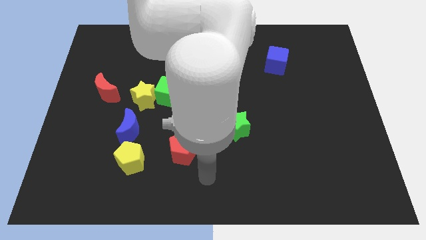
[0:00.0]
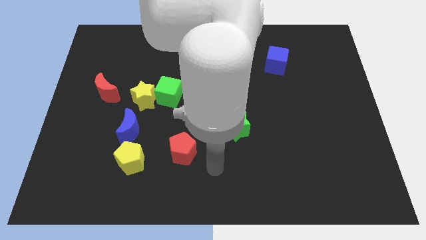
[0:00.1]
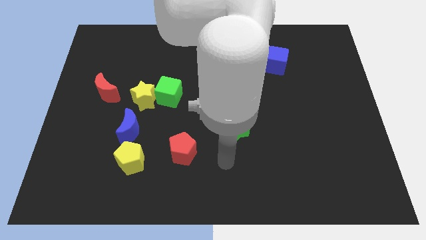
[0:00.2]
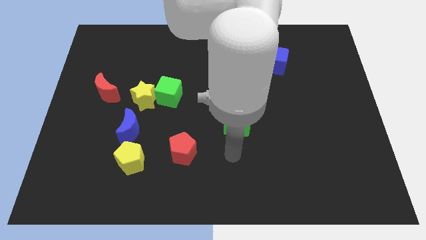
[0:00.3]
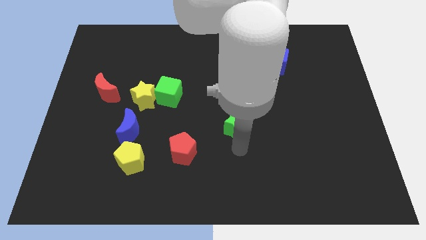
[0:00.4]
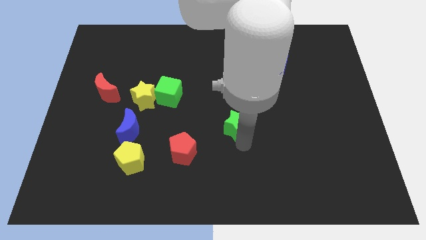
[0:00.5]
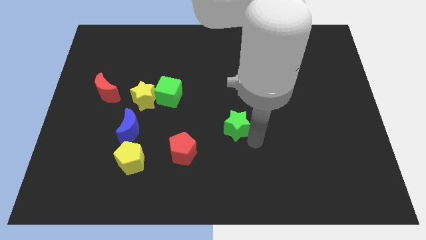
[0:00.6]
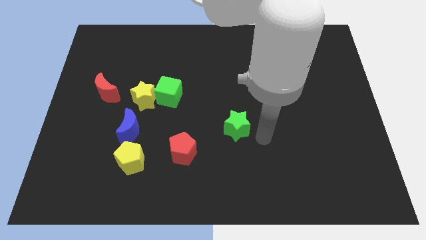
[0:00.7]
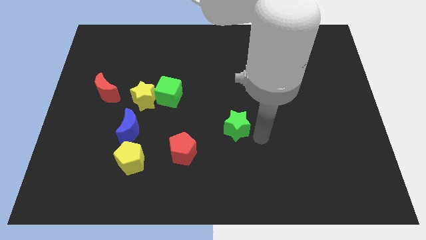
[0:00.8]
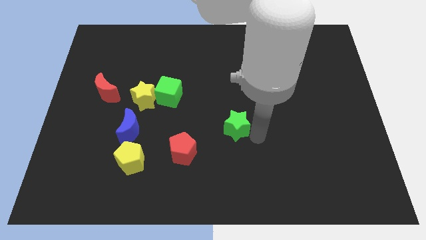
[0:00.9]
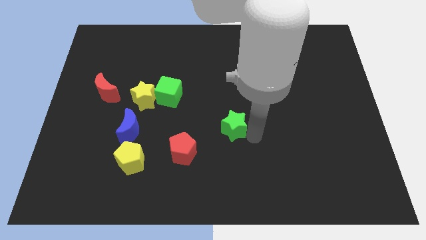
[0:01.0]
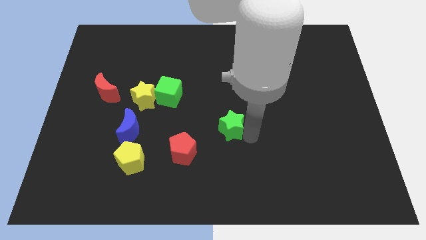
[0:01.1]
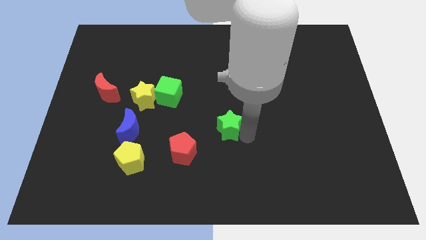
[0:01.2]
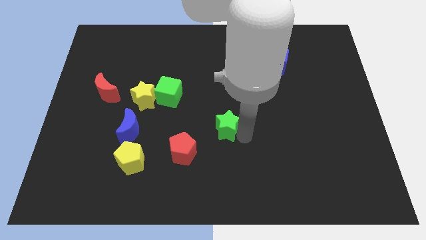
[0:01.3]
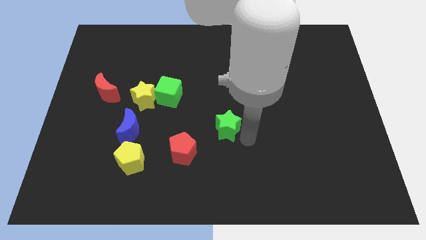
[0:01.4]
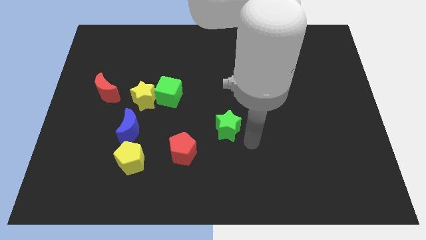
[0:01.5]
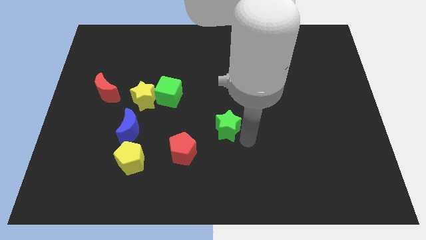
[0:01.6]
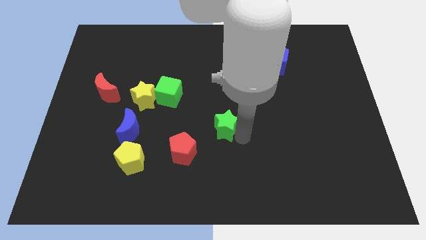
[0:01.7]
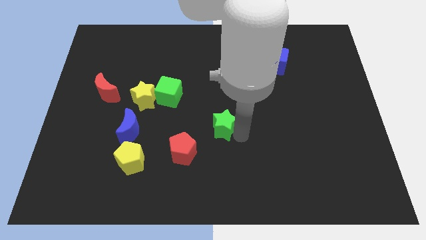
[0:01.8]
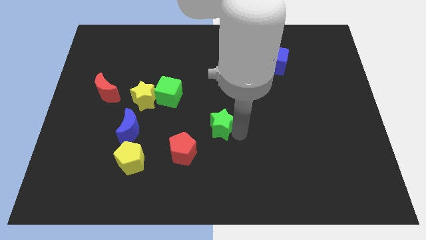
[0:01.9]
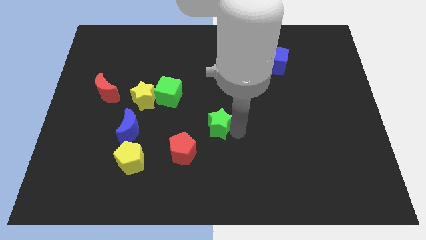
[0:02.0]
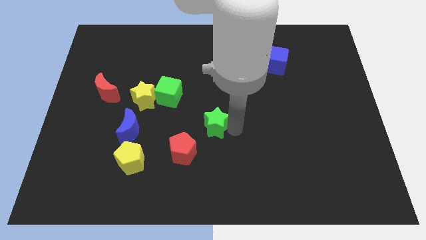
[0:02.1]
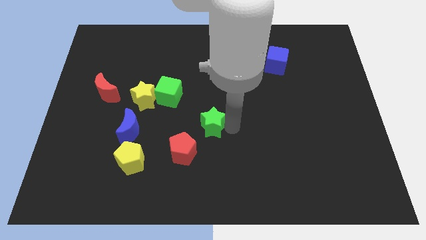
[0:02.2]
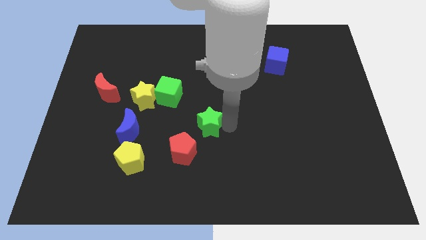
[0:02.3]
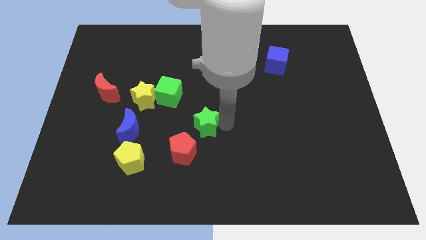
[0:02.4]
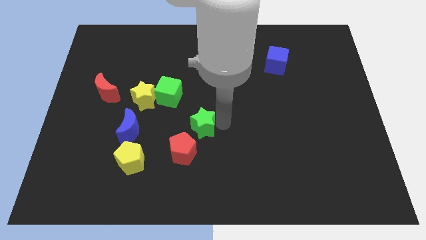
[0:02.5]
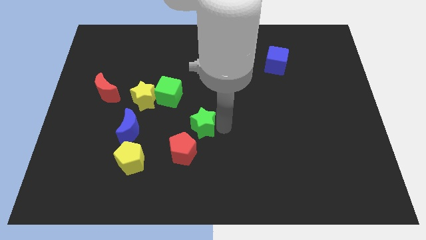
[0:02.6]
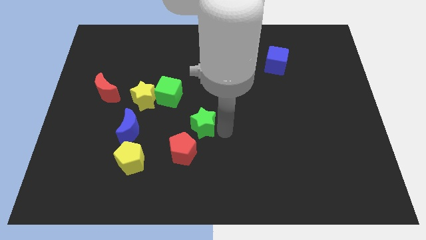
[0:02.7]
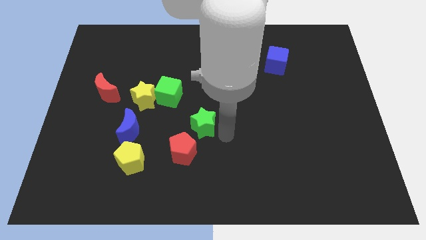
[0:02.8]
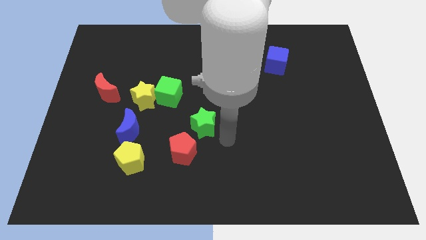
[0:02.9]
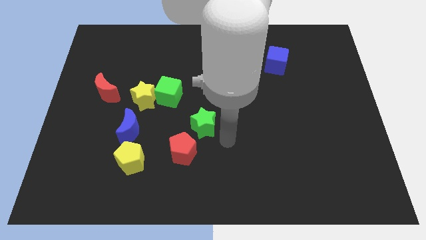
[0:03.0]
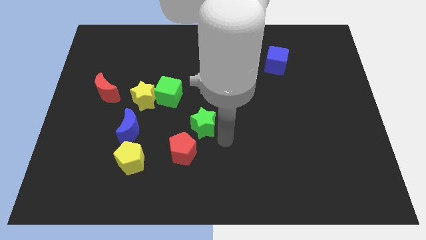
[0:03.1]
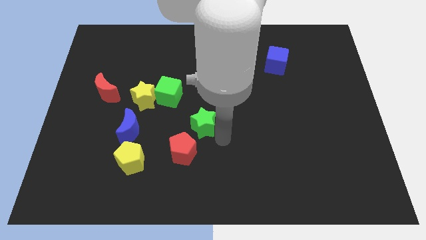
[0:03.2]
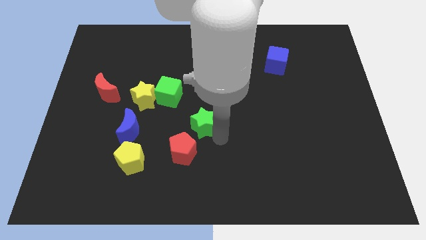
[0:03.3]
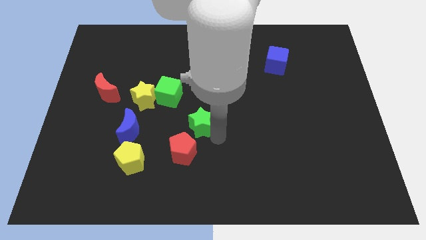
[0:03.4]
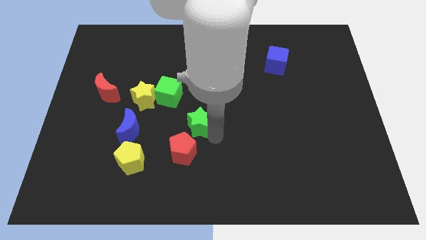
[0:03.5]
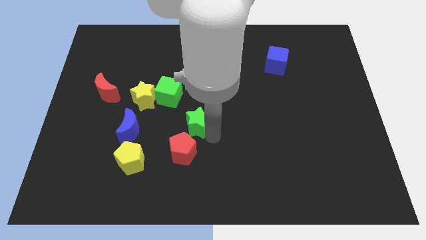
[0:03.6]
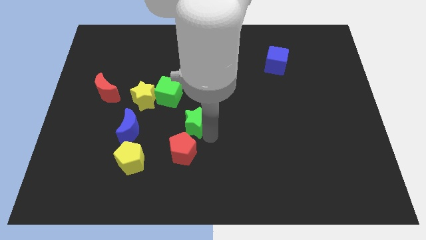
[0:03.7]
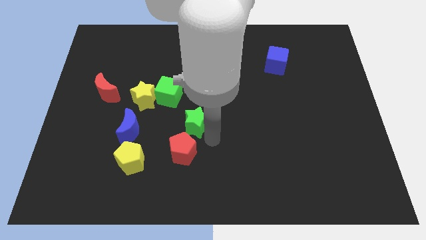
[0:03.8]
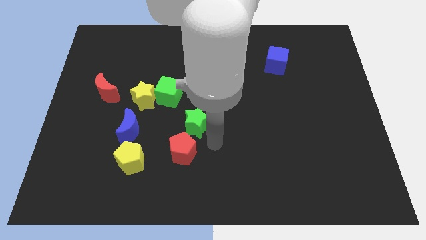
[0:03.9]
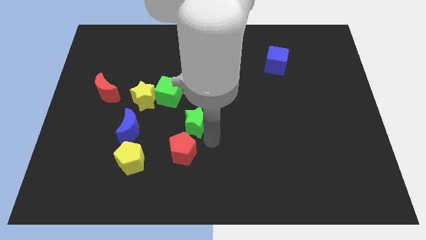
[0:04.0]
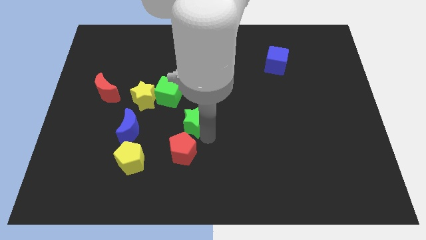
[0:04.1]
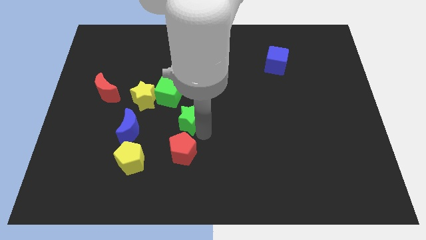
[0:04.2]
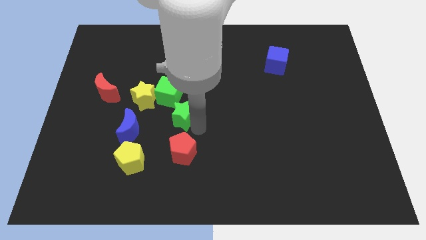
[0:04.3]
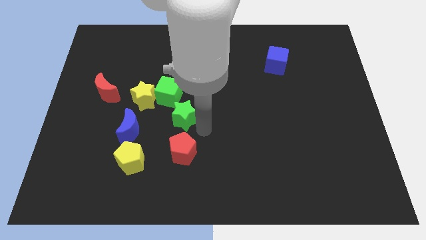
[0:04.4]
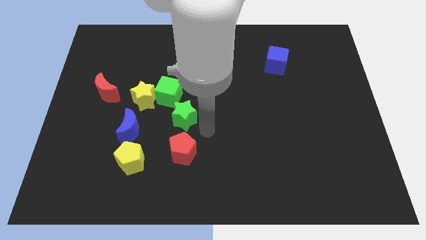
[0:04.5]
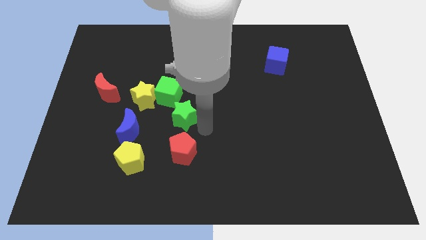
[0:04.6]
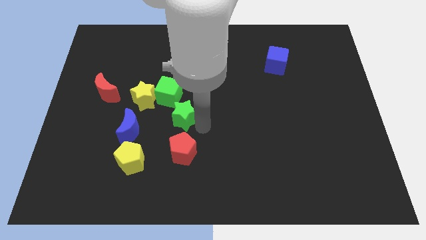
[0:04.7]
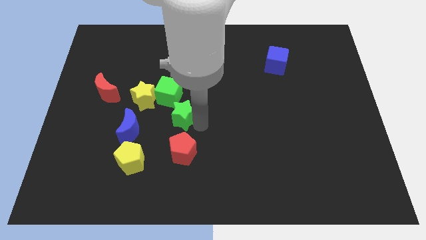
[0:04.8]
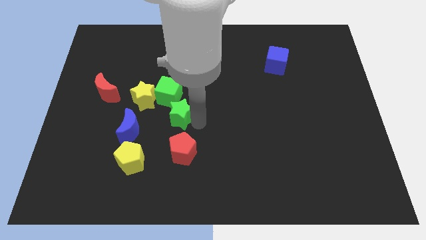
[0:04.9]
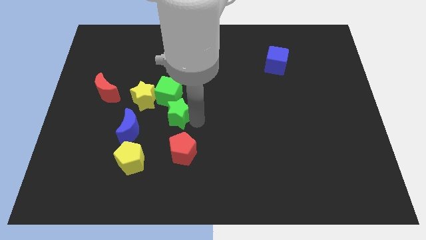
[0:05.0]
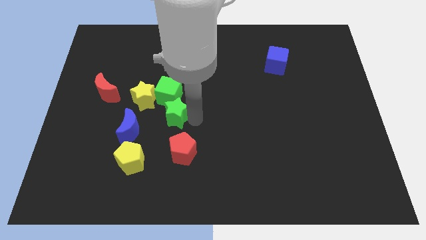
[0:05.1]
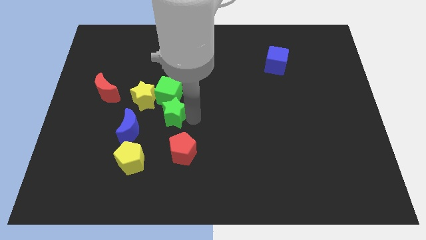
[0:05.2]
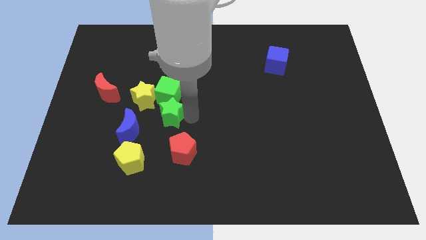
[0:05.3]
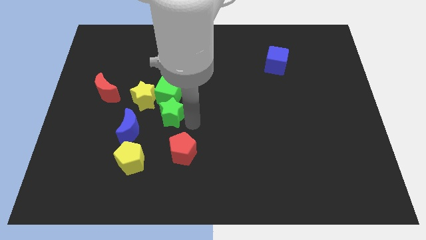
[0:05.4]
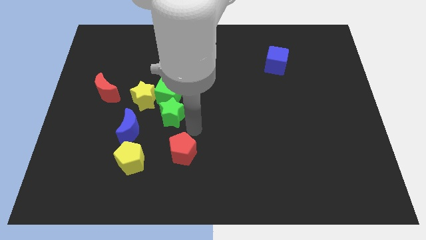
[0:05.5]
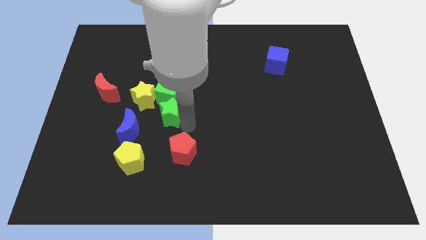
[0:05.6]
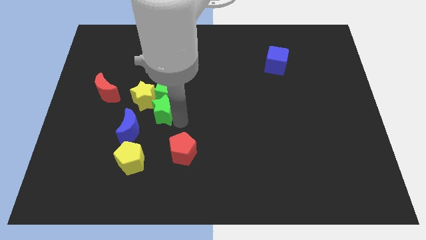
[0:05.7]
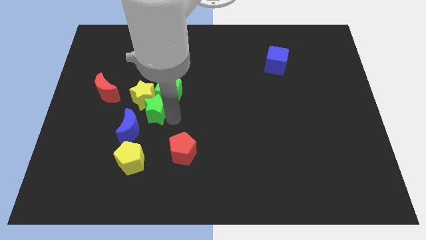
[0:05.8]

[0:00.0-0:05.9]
slide the green star to the yellow star
